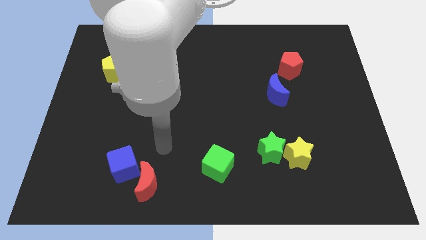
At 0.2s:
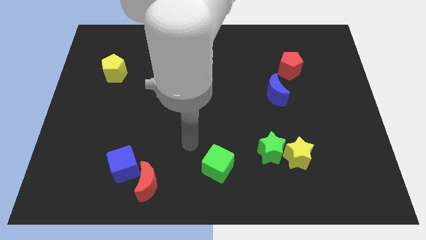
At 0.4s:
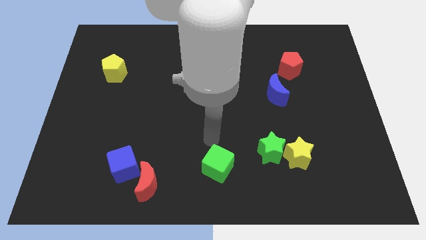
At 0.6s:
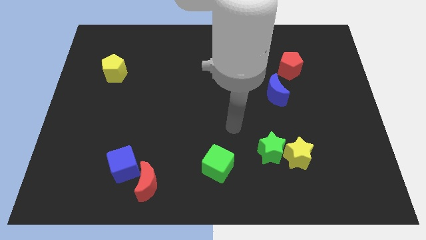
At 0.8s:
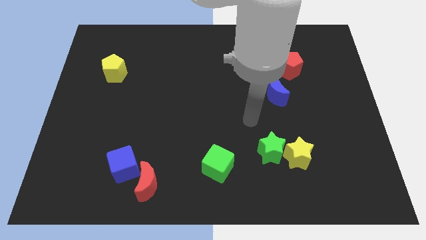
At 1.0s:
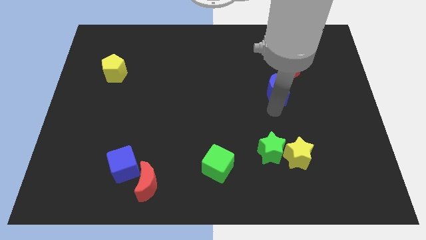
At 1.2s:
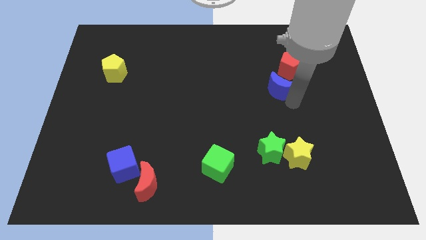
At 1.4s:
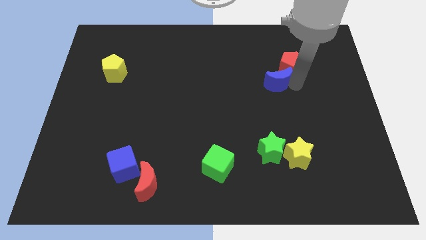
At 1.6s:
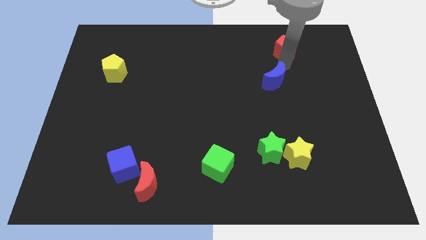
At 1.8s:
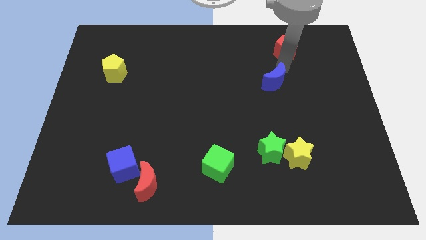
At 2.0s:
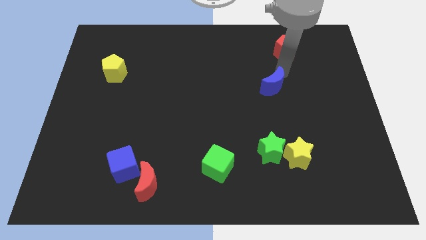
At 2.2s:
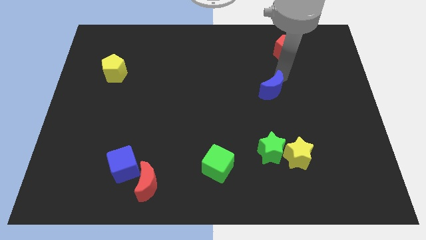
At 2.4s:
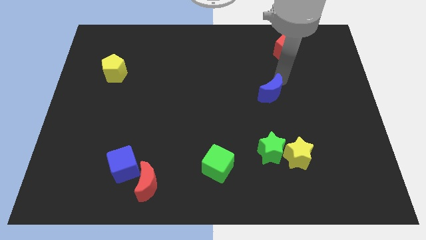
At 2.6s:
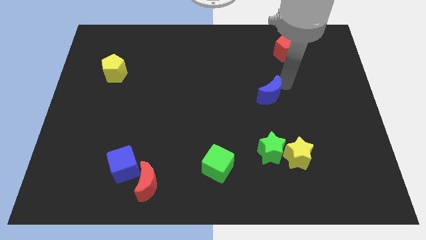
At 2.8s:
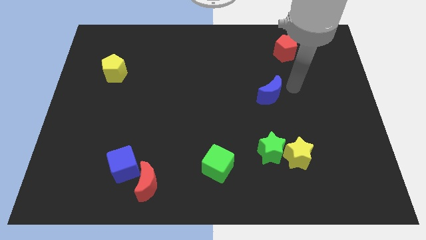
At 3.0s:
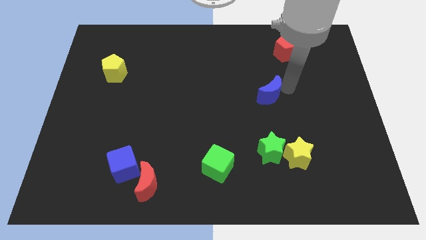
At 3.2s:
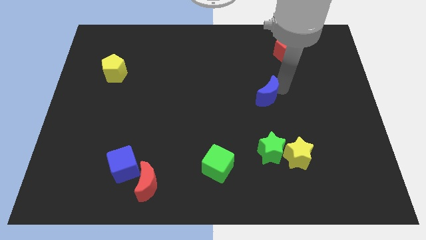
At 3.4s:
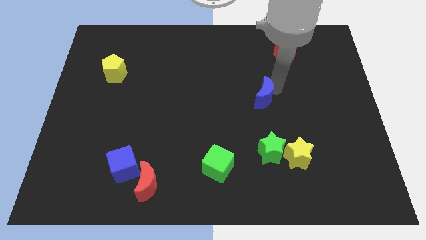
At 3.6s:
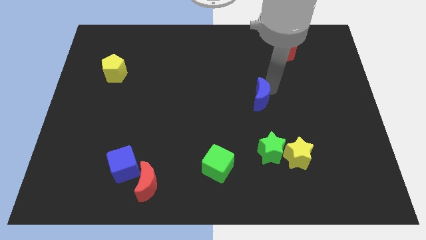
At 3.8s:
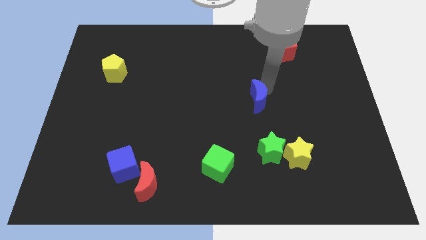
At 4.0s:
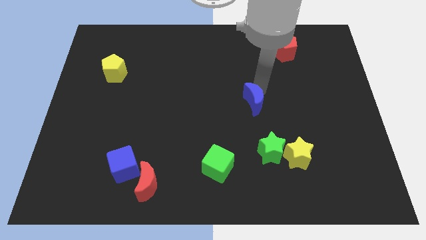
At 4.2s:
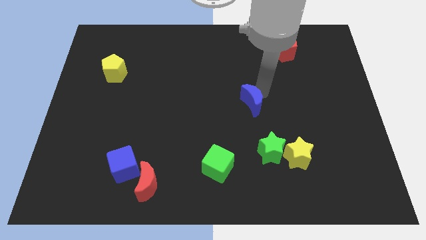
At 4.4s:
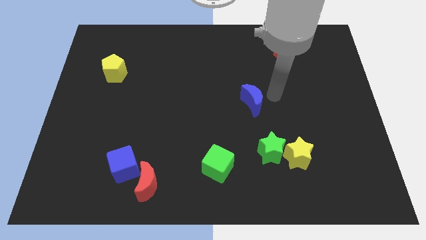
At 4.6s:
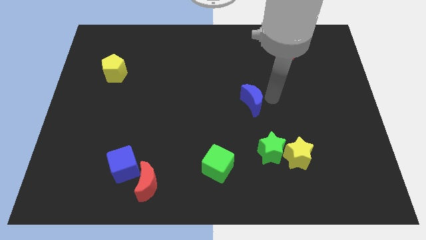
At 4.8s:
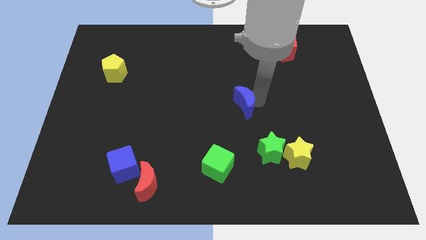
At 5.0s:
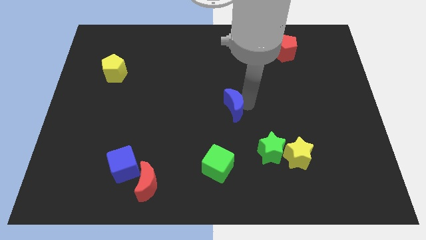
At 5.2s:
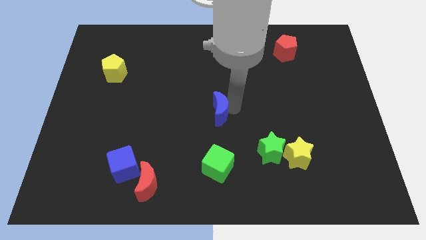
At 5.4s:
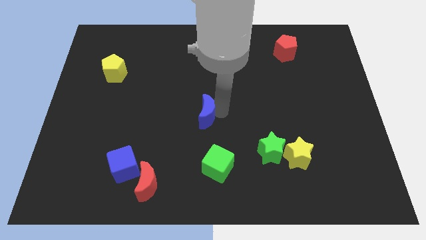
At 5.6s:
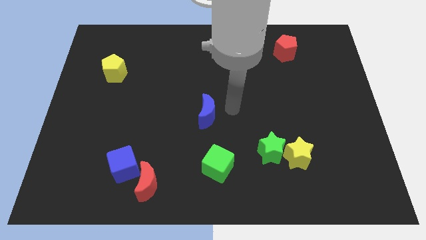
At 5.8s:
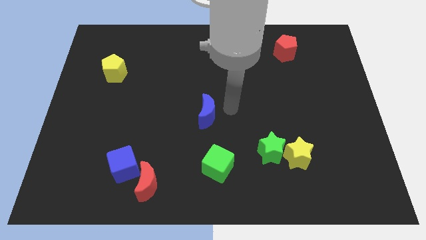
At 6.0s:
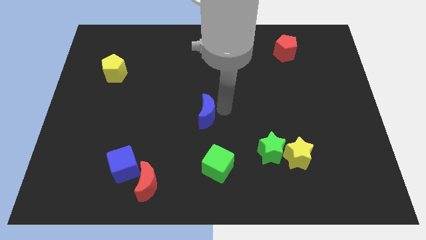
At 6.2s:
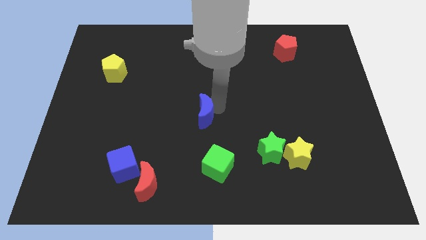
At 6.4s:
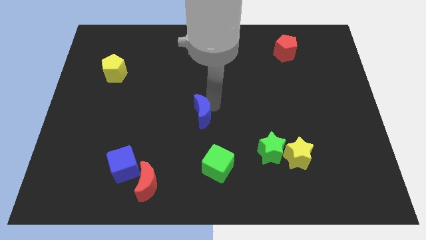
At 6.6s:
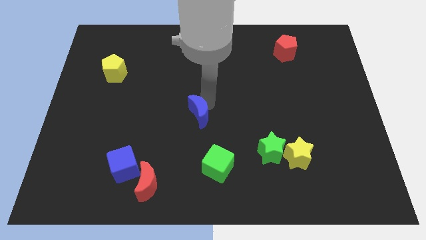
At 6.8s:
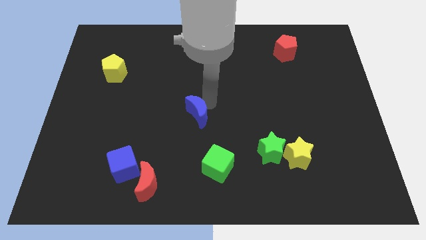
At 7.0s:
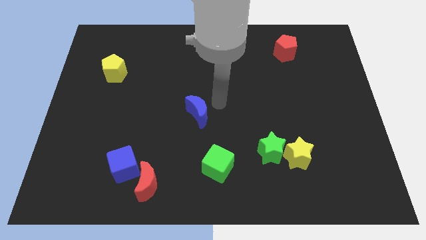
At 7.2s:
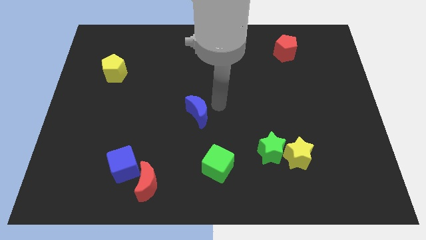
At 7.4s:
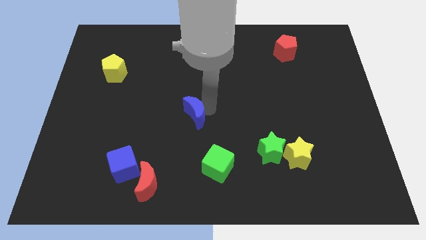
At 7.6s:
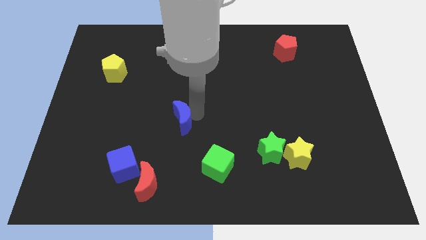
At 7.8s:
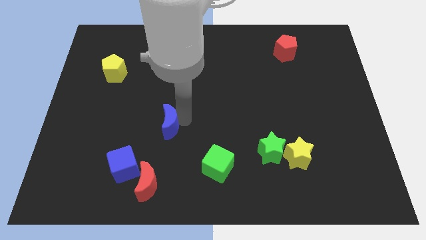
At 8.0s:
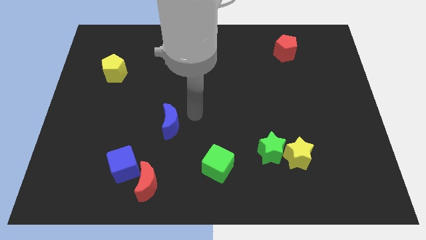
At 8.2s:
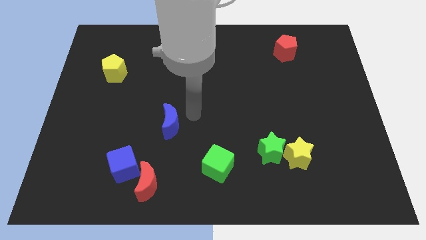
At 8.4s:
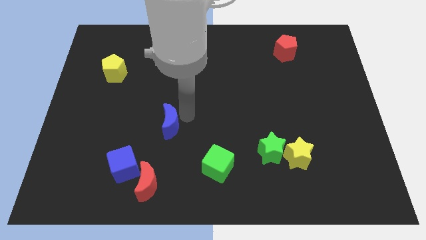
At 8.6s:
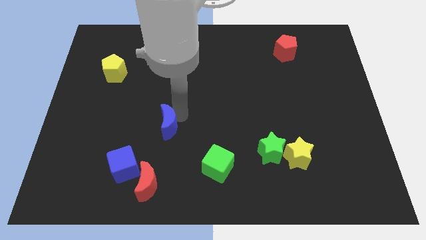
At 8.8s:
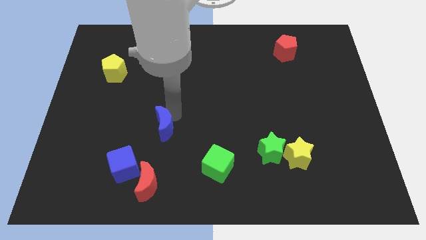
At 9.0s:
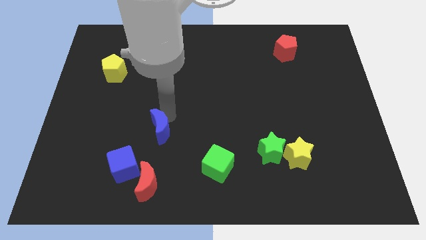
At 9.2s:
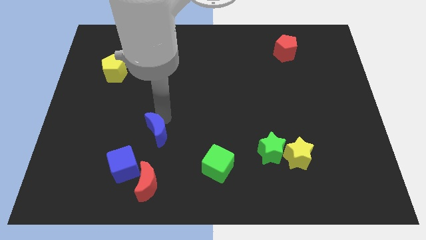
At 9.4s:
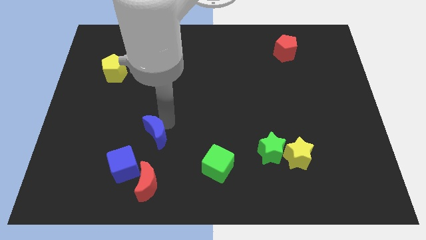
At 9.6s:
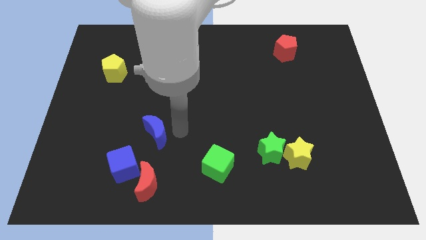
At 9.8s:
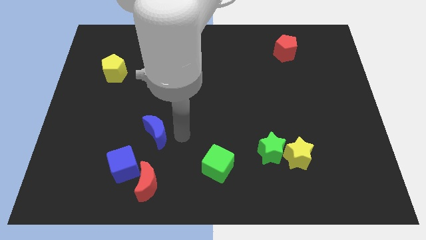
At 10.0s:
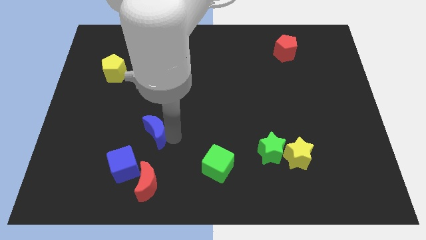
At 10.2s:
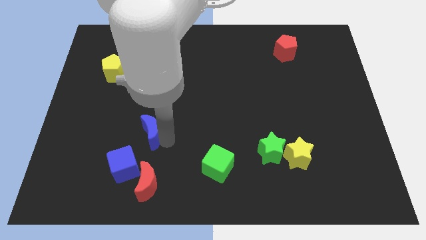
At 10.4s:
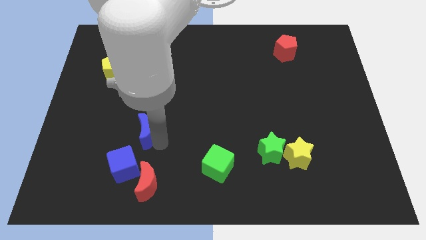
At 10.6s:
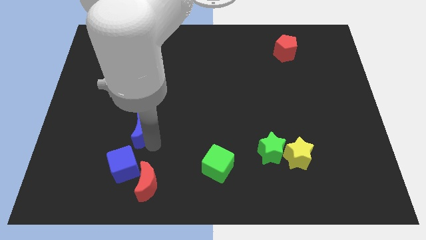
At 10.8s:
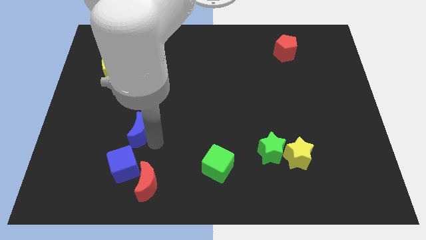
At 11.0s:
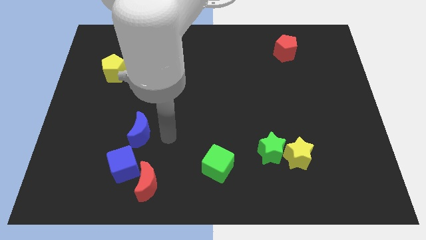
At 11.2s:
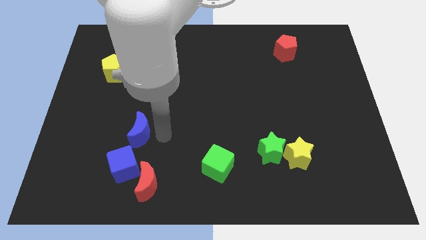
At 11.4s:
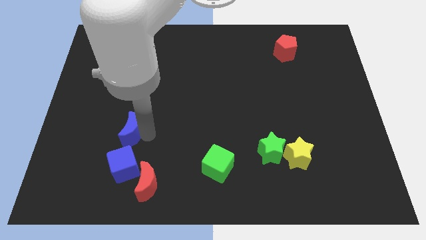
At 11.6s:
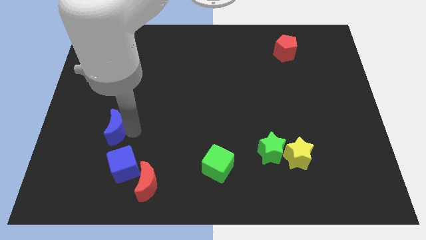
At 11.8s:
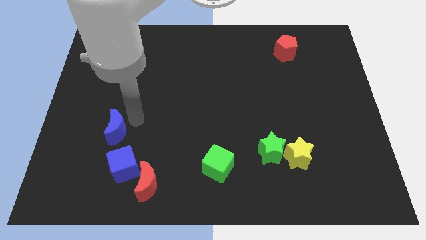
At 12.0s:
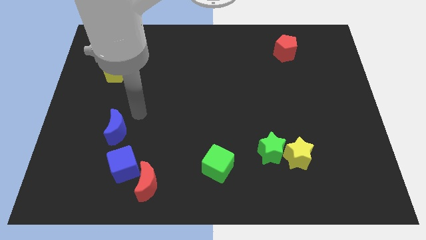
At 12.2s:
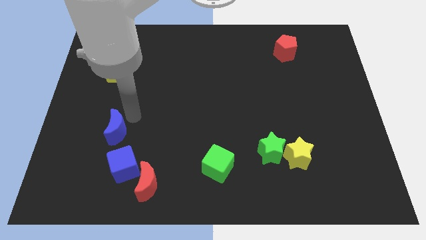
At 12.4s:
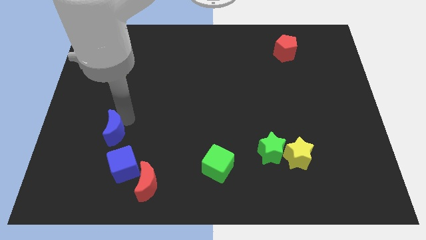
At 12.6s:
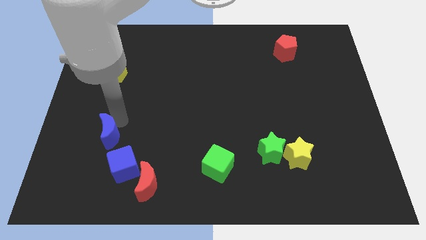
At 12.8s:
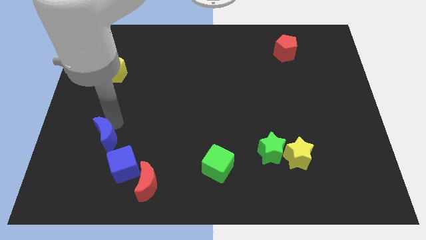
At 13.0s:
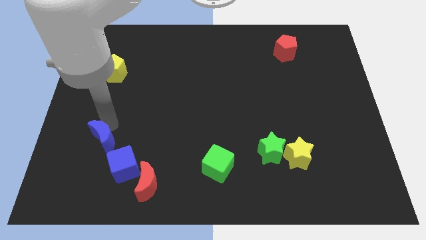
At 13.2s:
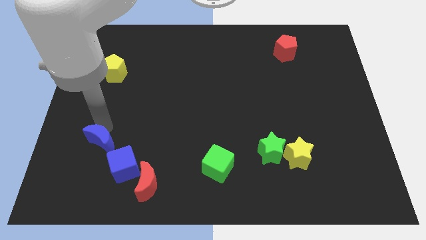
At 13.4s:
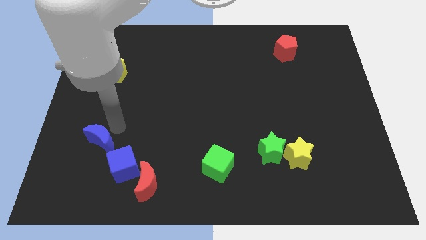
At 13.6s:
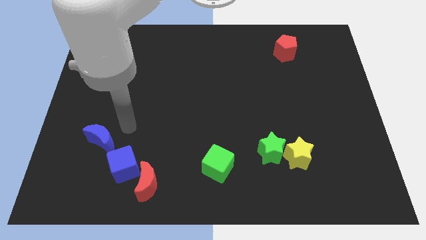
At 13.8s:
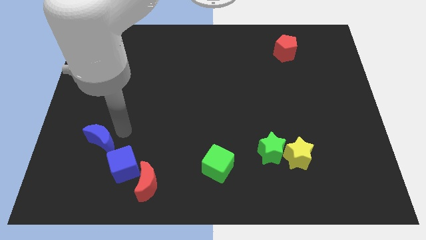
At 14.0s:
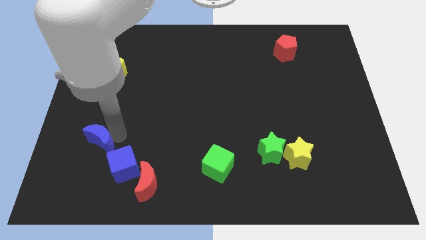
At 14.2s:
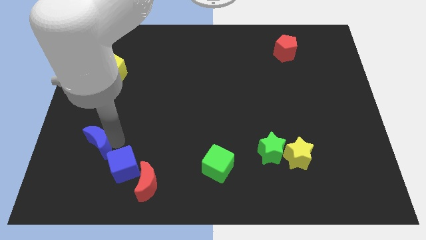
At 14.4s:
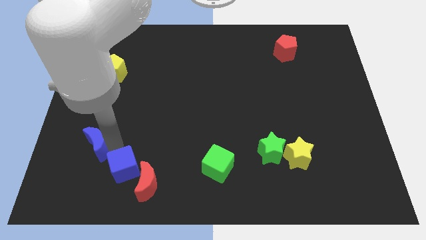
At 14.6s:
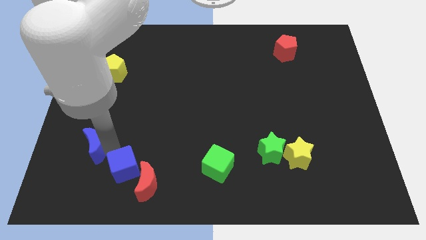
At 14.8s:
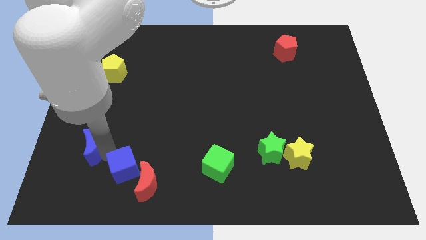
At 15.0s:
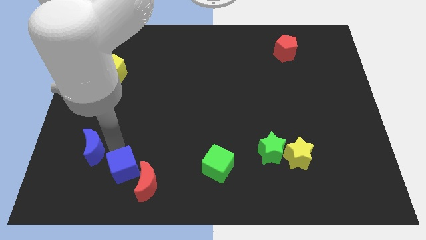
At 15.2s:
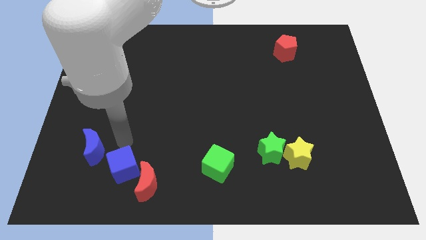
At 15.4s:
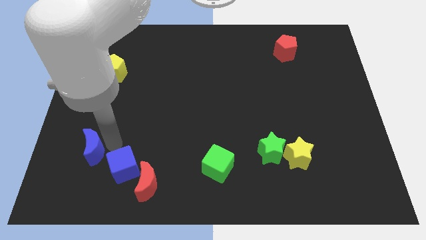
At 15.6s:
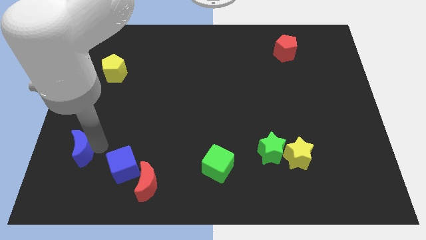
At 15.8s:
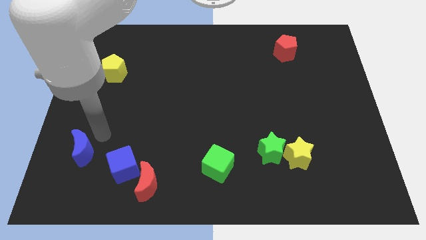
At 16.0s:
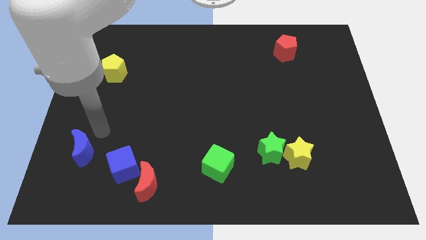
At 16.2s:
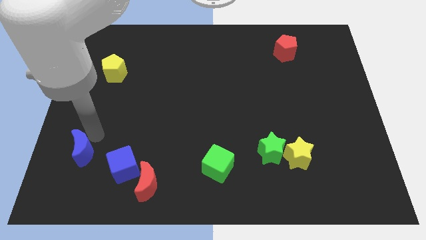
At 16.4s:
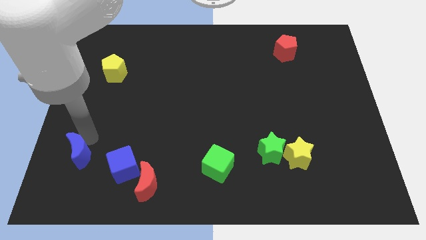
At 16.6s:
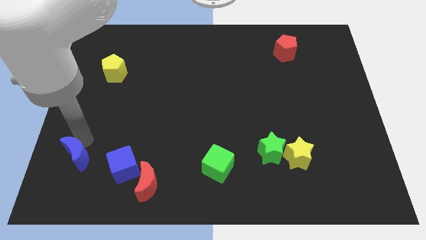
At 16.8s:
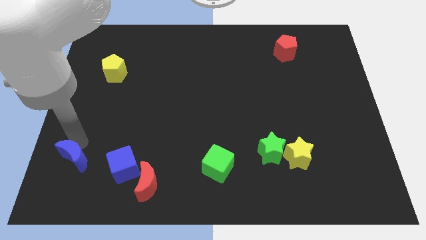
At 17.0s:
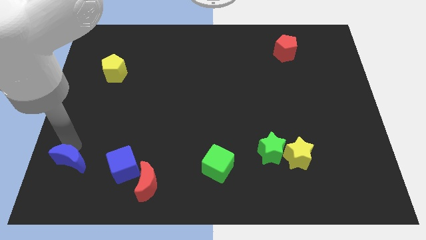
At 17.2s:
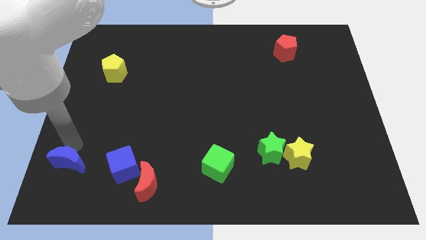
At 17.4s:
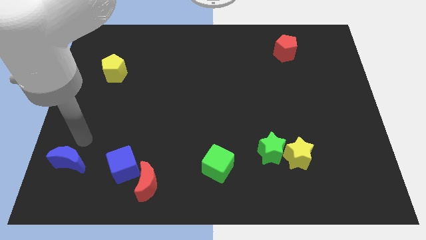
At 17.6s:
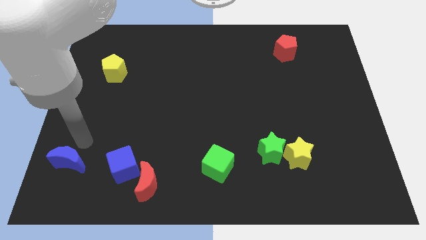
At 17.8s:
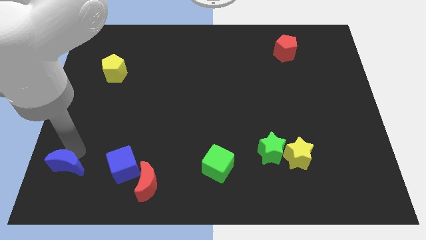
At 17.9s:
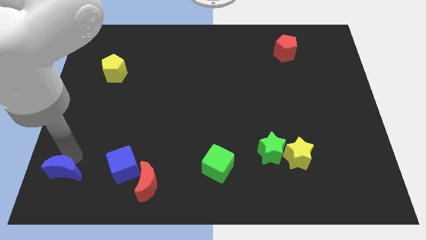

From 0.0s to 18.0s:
move the blue moon to the lower left corner
